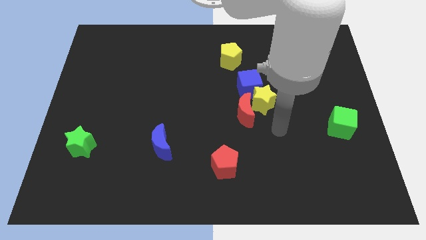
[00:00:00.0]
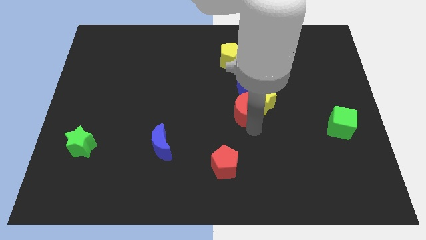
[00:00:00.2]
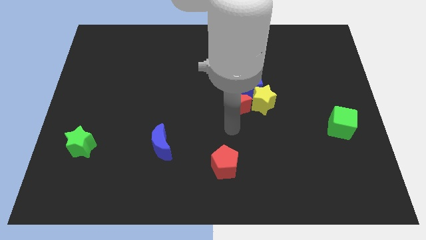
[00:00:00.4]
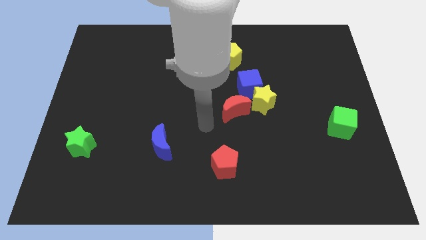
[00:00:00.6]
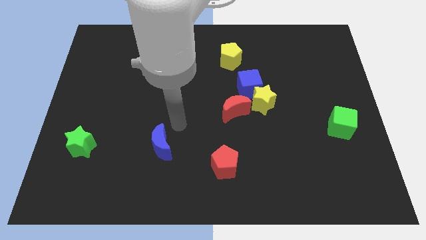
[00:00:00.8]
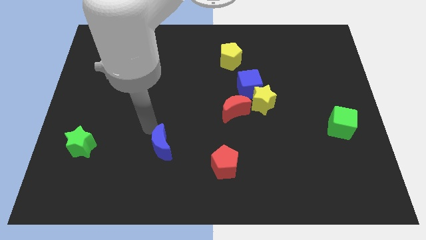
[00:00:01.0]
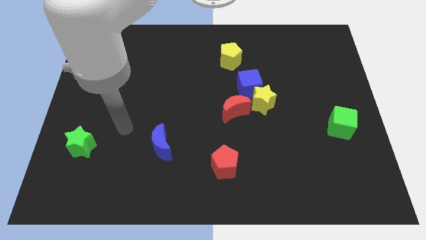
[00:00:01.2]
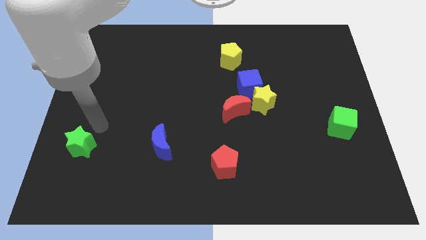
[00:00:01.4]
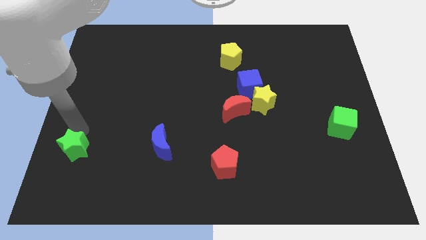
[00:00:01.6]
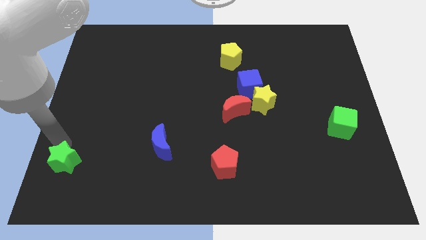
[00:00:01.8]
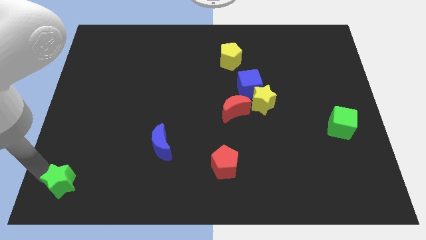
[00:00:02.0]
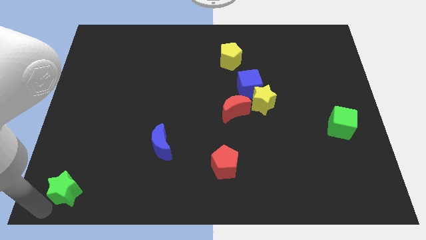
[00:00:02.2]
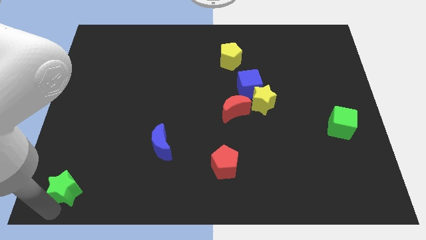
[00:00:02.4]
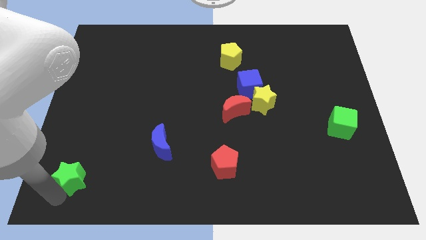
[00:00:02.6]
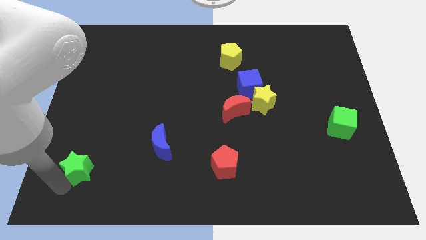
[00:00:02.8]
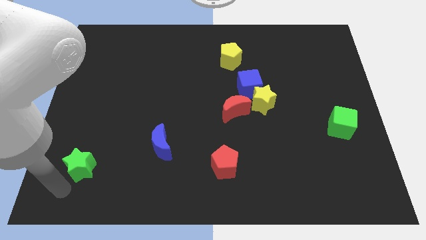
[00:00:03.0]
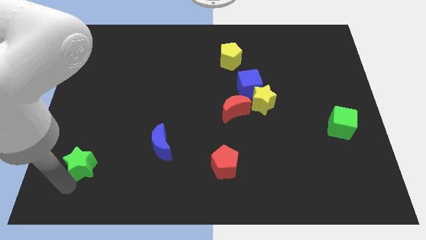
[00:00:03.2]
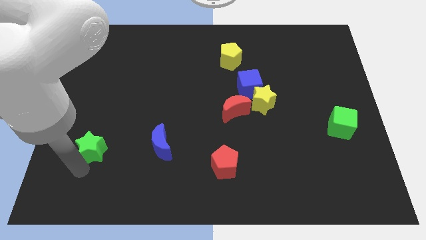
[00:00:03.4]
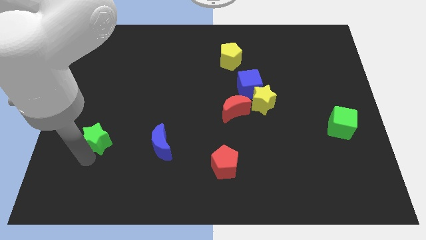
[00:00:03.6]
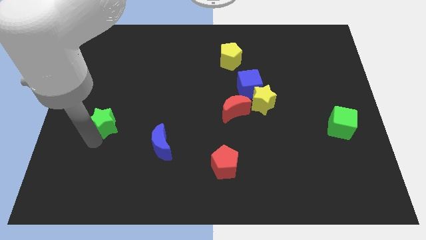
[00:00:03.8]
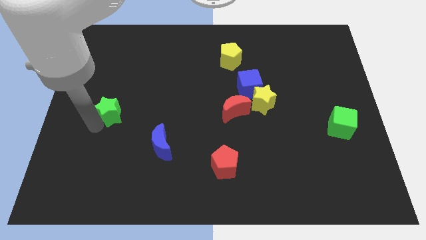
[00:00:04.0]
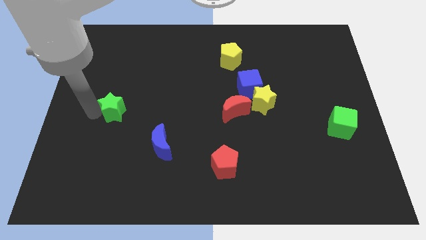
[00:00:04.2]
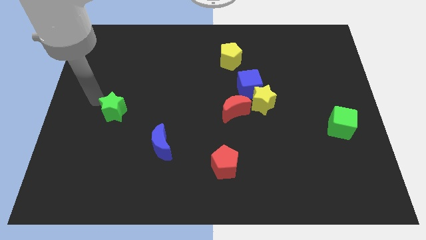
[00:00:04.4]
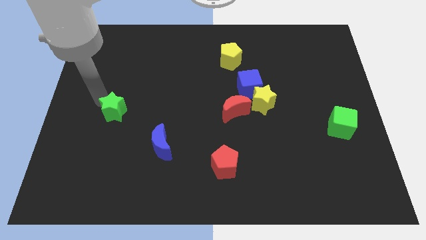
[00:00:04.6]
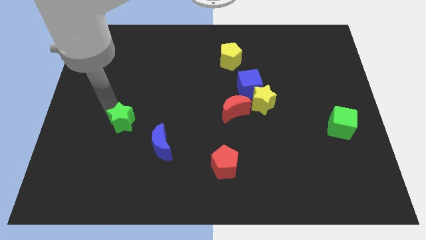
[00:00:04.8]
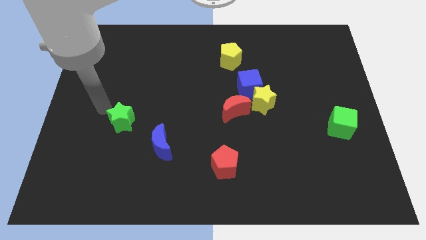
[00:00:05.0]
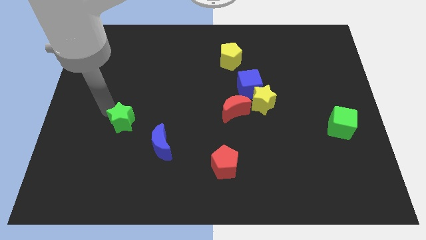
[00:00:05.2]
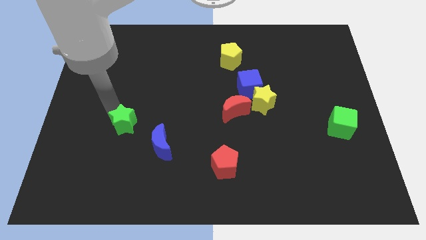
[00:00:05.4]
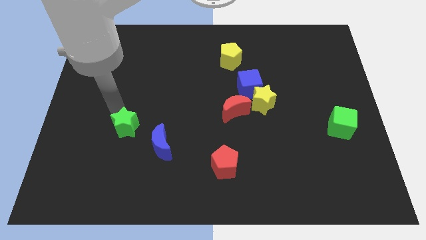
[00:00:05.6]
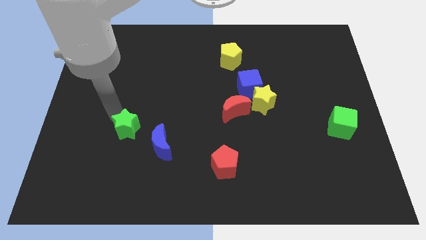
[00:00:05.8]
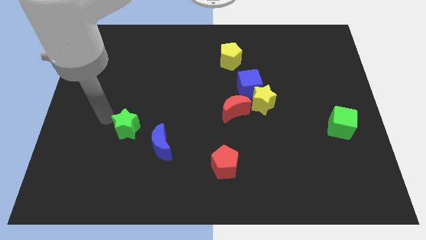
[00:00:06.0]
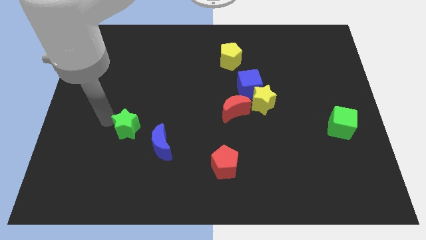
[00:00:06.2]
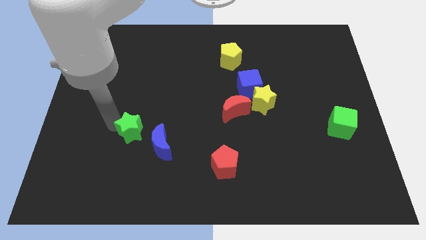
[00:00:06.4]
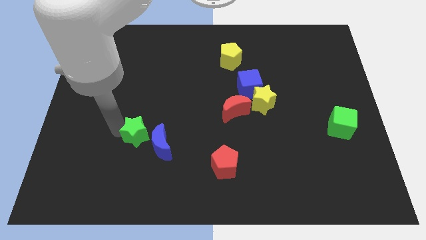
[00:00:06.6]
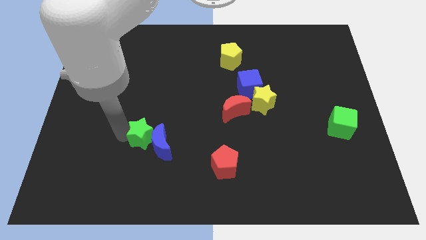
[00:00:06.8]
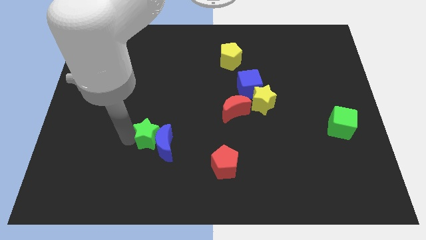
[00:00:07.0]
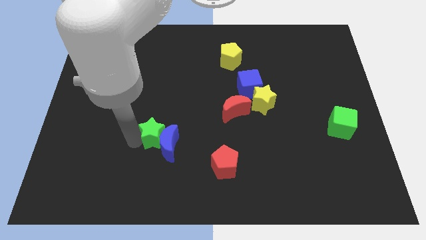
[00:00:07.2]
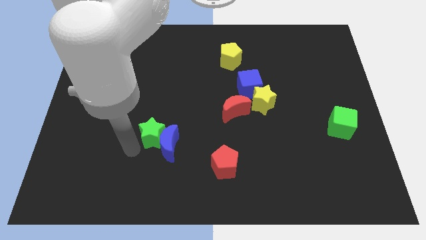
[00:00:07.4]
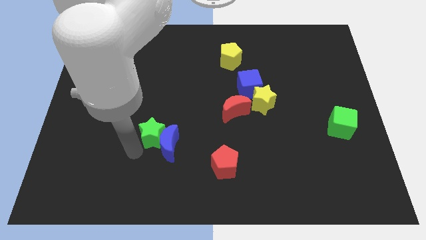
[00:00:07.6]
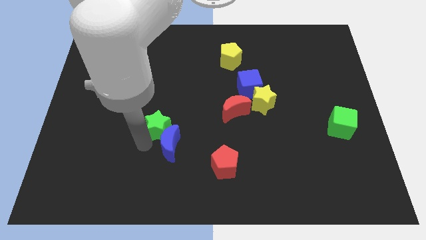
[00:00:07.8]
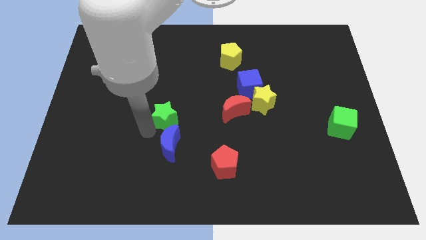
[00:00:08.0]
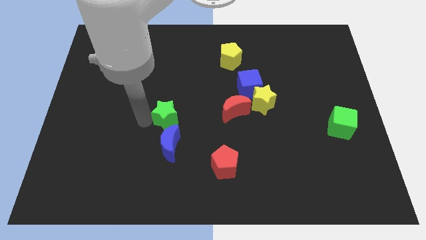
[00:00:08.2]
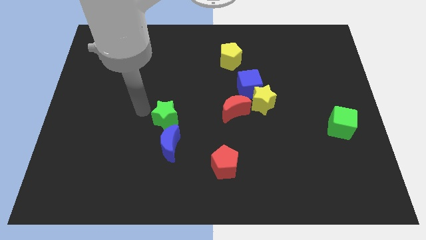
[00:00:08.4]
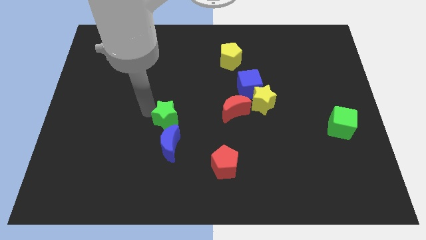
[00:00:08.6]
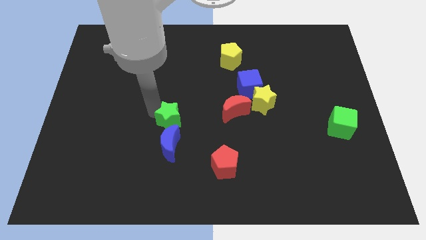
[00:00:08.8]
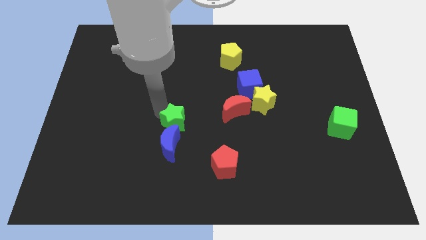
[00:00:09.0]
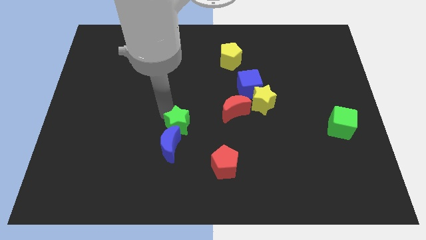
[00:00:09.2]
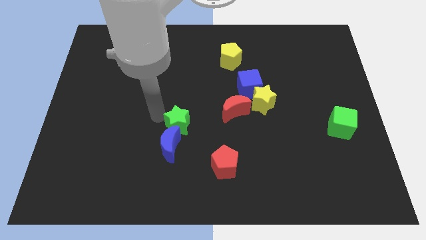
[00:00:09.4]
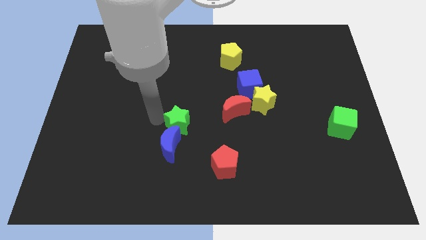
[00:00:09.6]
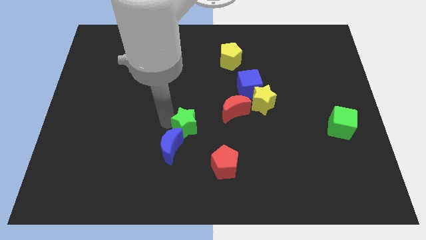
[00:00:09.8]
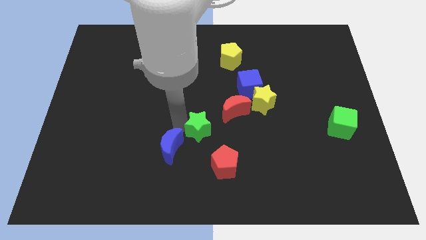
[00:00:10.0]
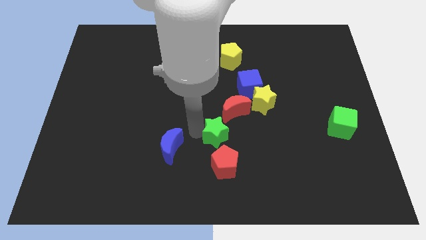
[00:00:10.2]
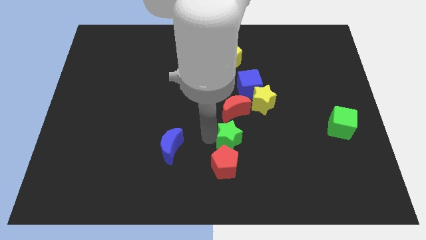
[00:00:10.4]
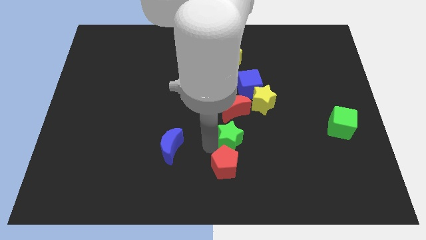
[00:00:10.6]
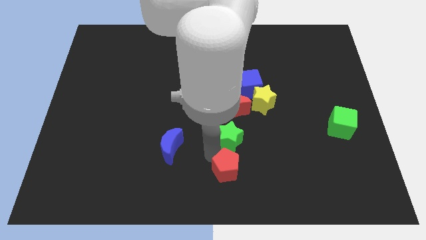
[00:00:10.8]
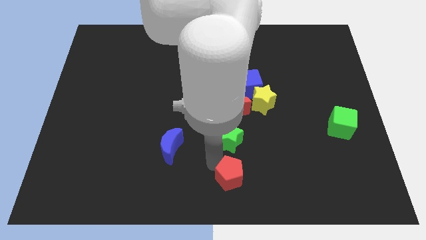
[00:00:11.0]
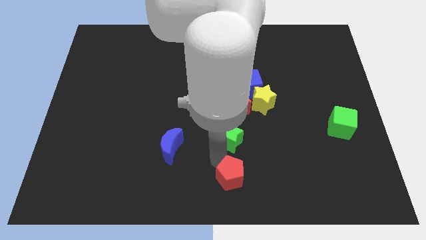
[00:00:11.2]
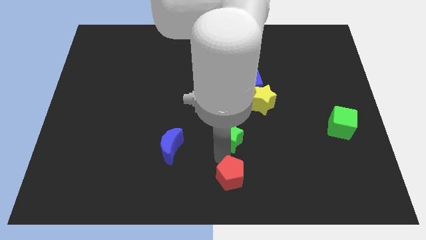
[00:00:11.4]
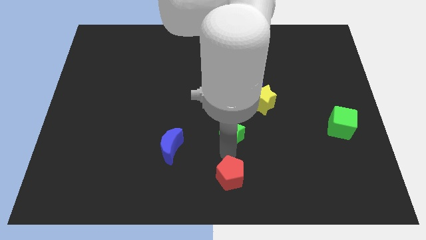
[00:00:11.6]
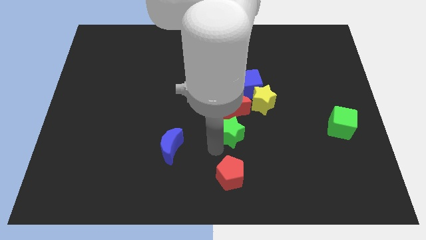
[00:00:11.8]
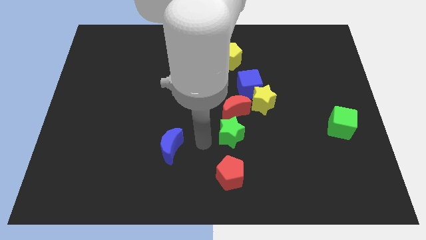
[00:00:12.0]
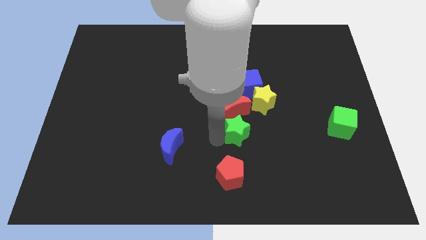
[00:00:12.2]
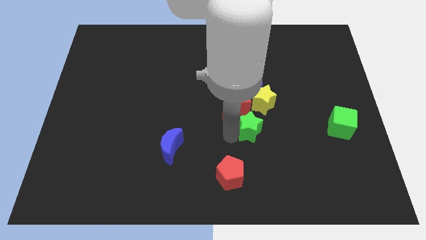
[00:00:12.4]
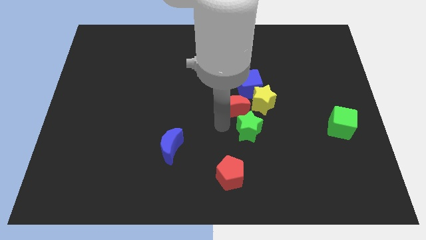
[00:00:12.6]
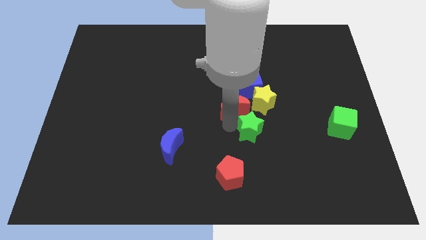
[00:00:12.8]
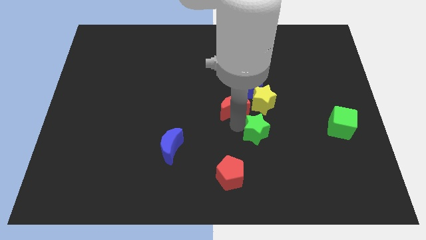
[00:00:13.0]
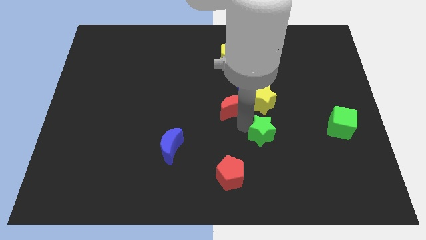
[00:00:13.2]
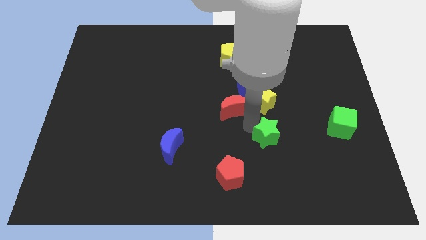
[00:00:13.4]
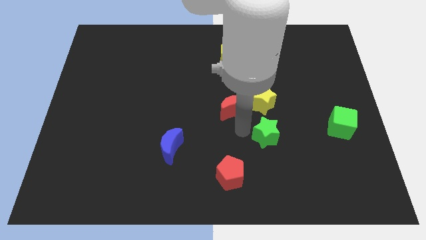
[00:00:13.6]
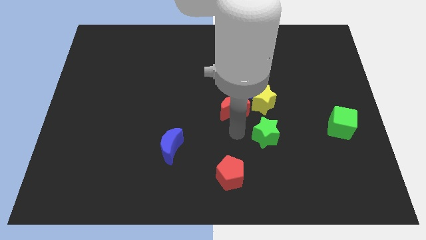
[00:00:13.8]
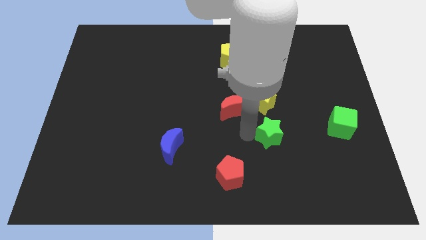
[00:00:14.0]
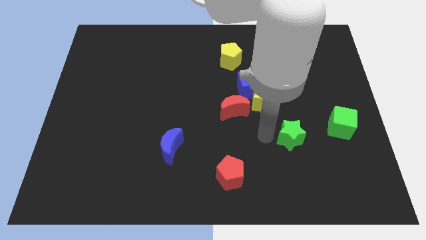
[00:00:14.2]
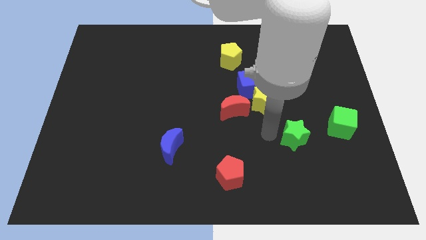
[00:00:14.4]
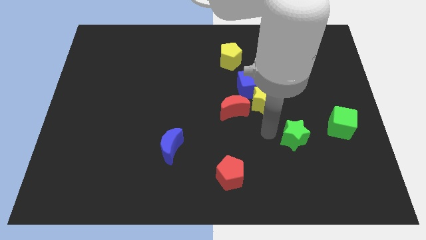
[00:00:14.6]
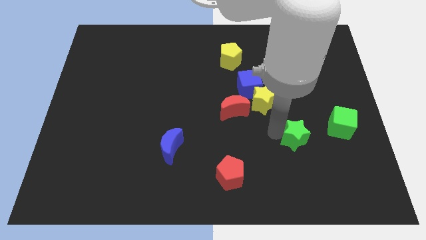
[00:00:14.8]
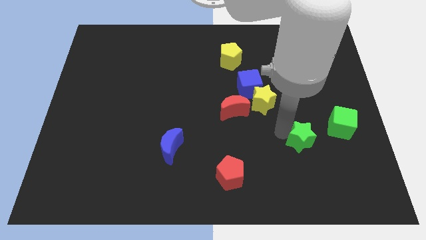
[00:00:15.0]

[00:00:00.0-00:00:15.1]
put the green star to the bottom left of the green cube
